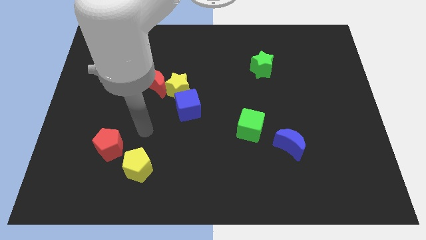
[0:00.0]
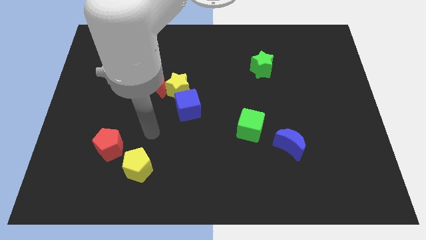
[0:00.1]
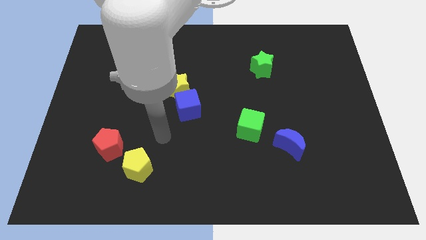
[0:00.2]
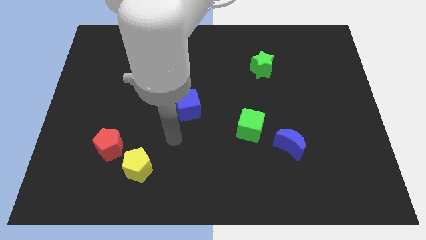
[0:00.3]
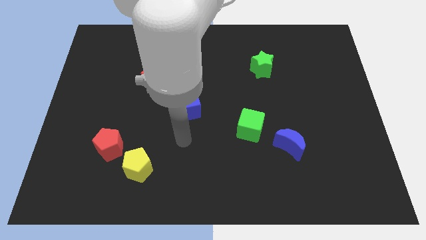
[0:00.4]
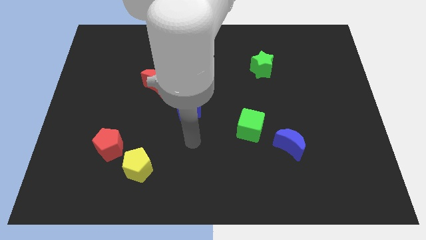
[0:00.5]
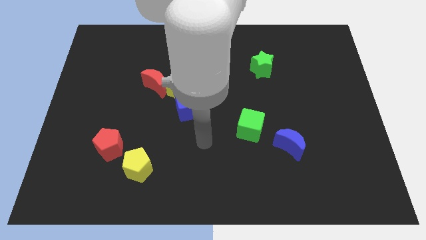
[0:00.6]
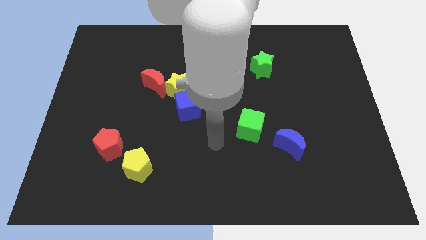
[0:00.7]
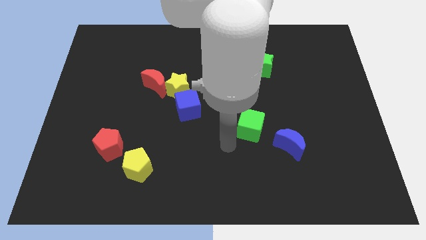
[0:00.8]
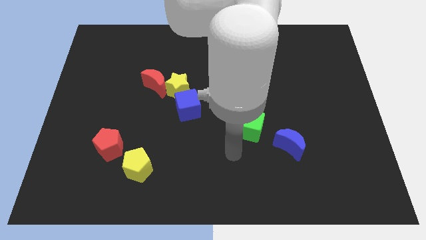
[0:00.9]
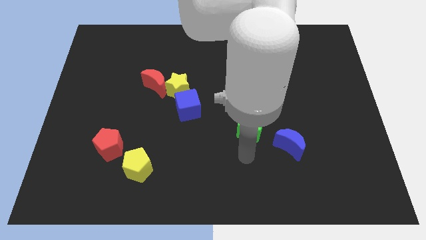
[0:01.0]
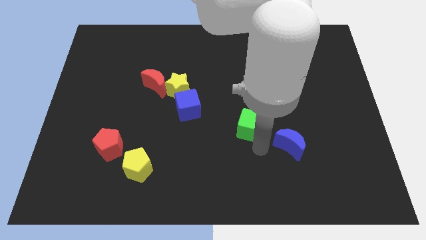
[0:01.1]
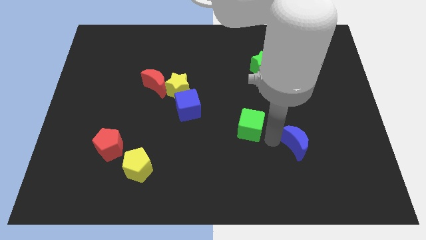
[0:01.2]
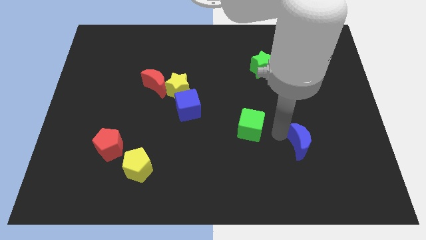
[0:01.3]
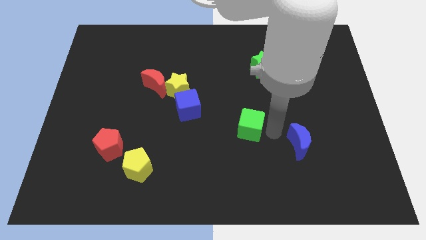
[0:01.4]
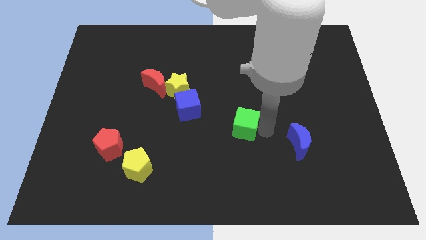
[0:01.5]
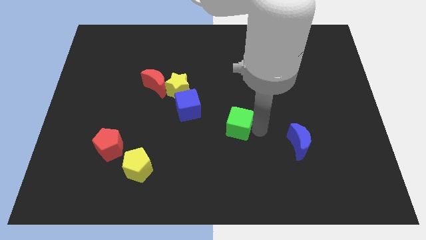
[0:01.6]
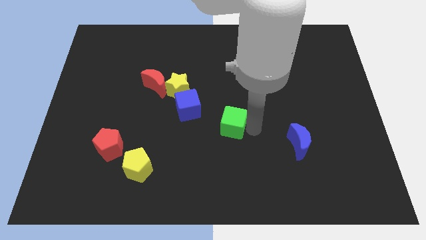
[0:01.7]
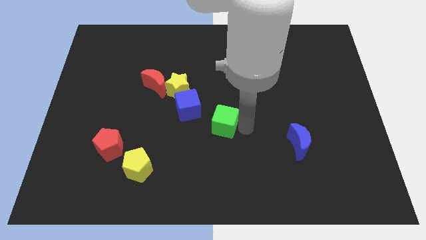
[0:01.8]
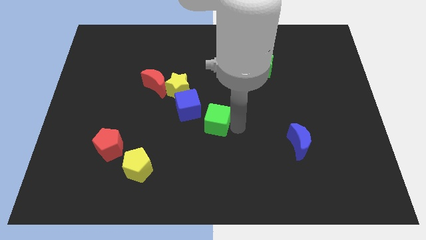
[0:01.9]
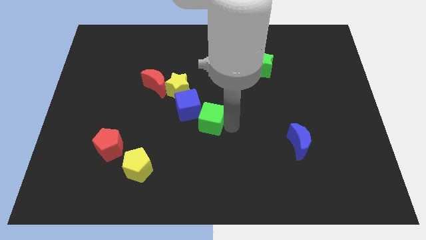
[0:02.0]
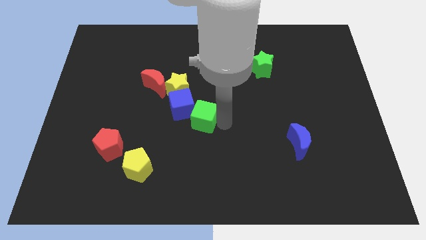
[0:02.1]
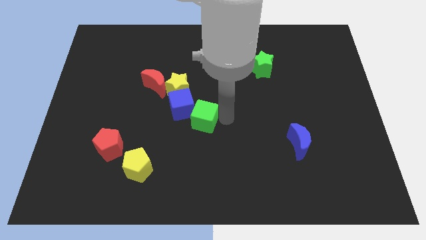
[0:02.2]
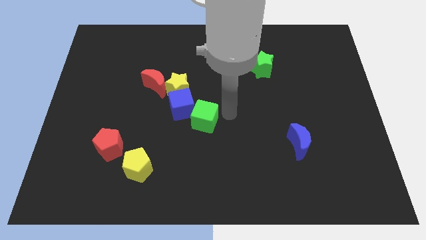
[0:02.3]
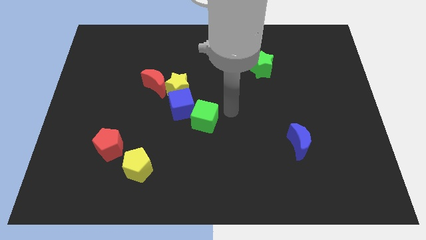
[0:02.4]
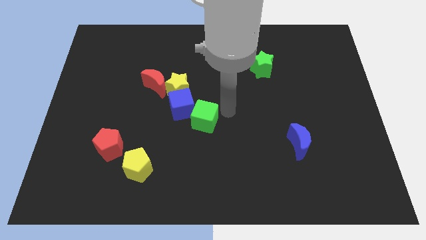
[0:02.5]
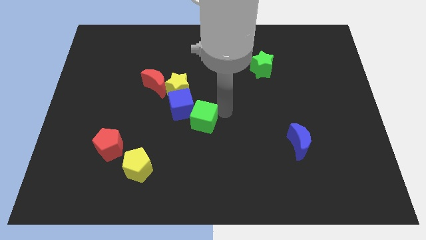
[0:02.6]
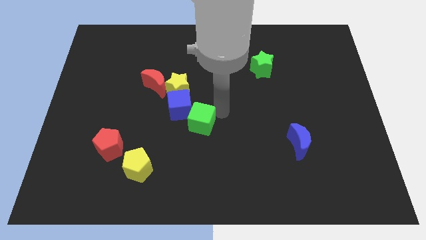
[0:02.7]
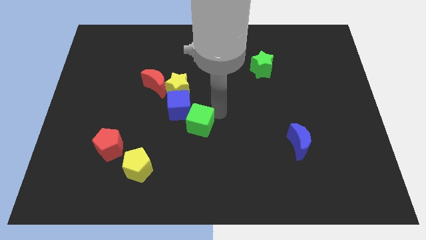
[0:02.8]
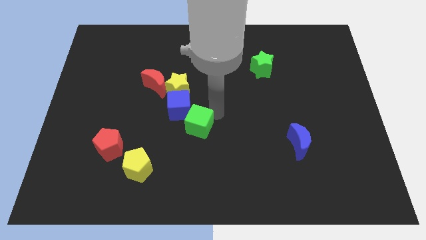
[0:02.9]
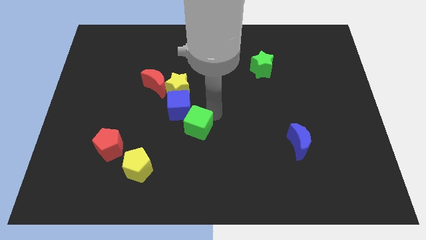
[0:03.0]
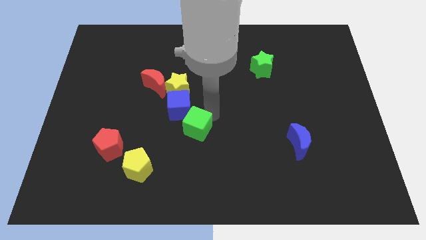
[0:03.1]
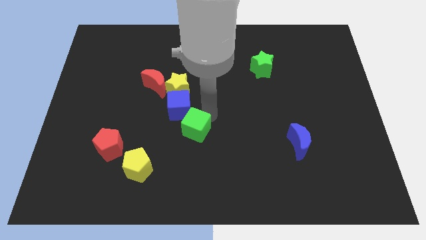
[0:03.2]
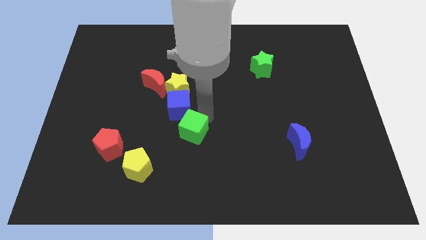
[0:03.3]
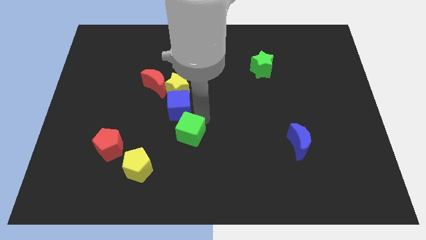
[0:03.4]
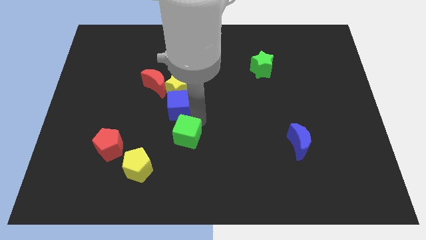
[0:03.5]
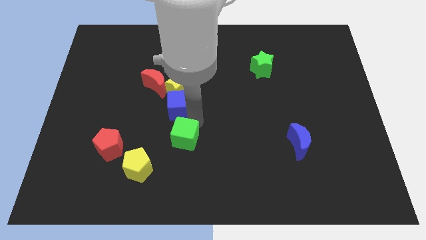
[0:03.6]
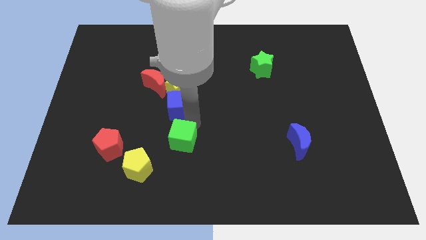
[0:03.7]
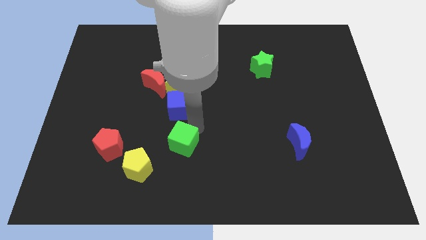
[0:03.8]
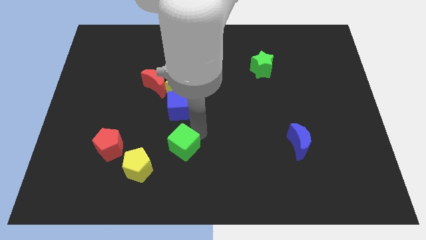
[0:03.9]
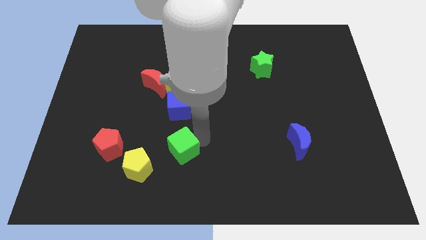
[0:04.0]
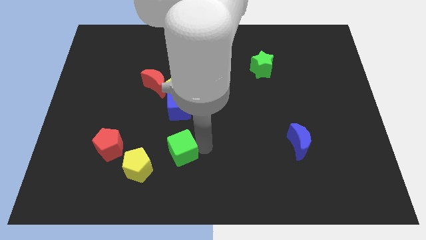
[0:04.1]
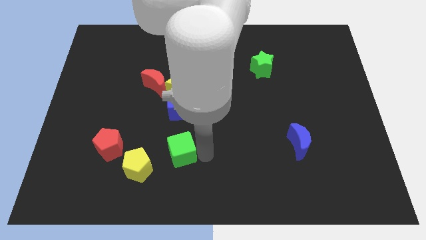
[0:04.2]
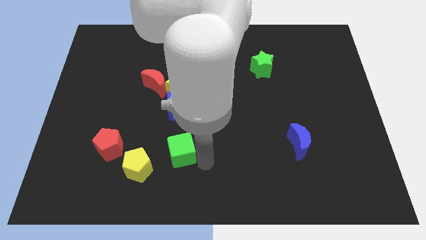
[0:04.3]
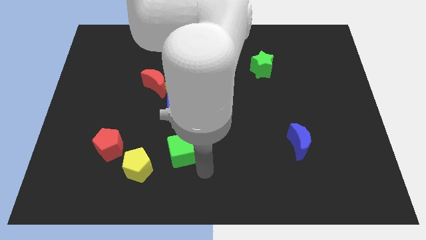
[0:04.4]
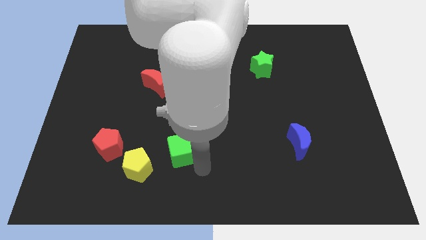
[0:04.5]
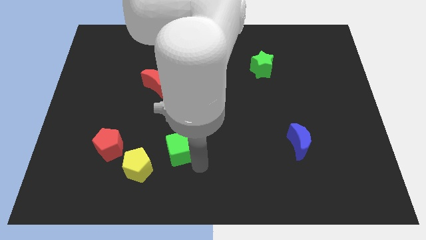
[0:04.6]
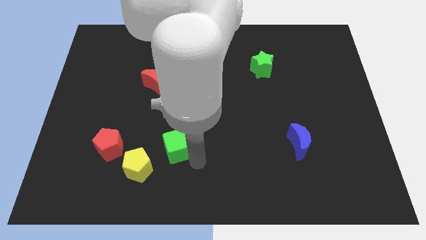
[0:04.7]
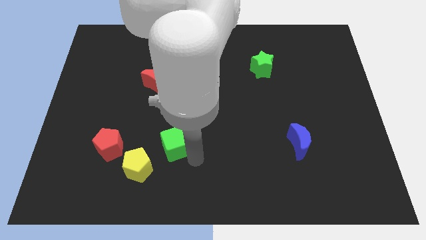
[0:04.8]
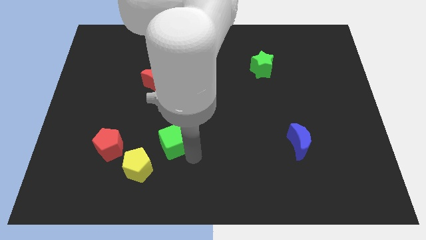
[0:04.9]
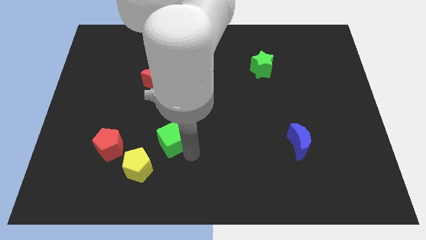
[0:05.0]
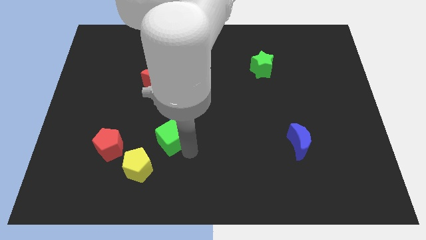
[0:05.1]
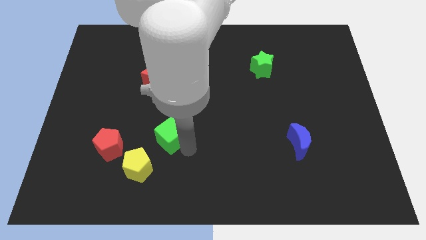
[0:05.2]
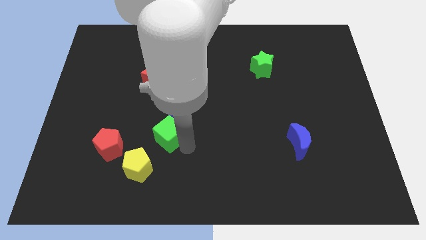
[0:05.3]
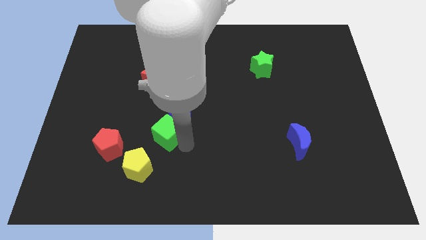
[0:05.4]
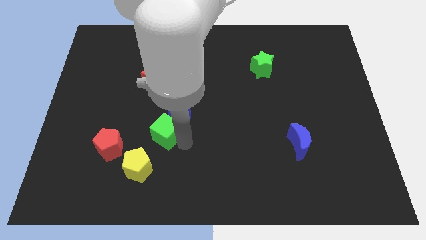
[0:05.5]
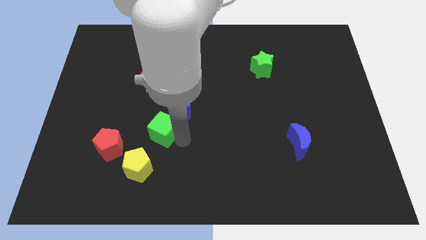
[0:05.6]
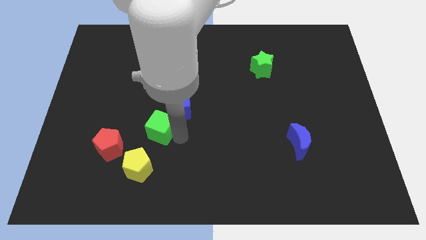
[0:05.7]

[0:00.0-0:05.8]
push the green cube left

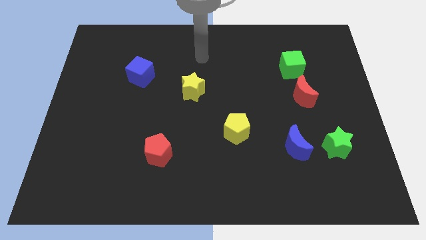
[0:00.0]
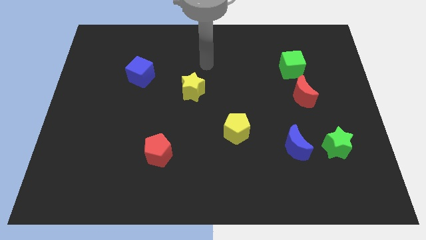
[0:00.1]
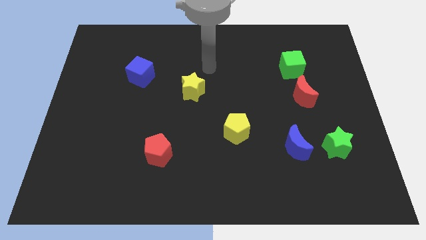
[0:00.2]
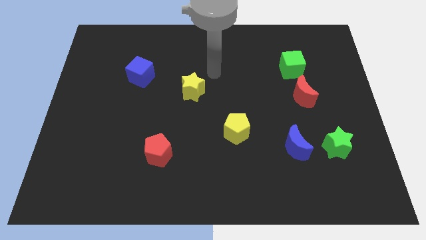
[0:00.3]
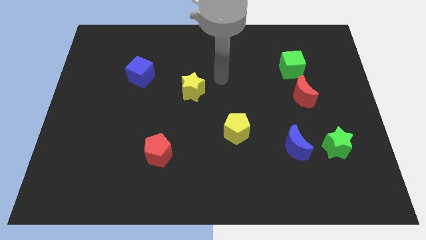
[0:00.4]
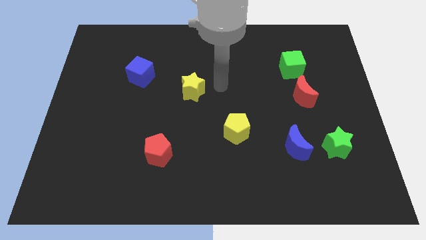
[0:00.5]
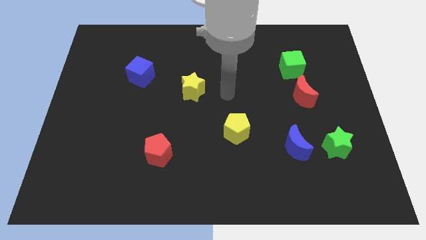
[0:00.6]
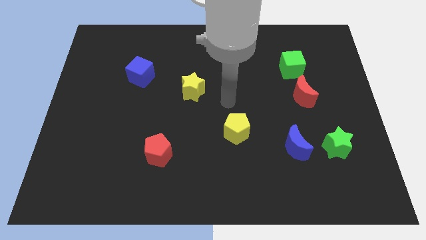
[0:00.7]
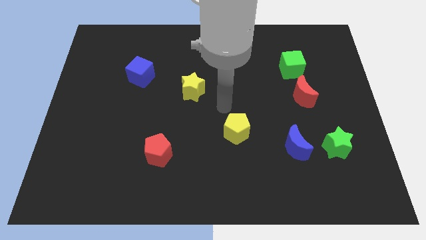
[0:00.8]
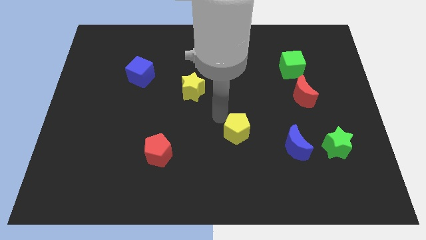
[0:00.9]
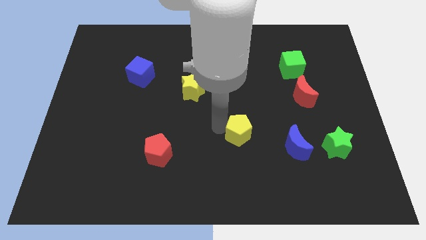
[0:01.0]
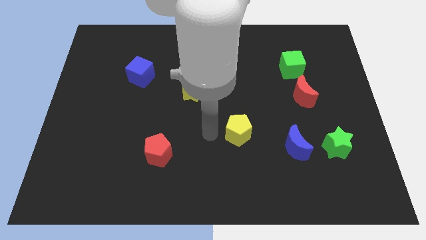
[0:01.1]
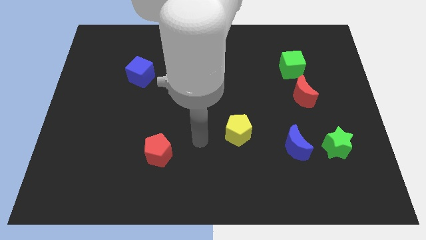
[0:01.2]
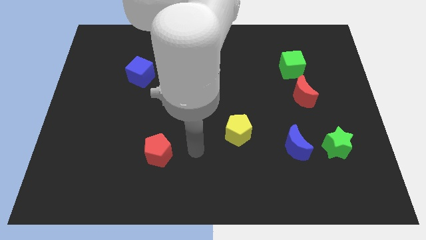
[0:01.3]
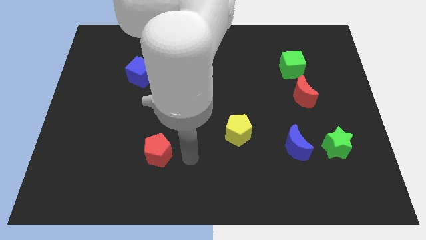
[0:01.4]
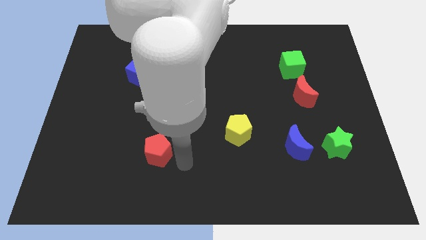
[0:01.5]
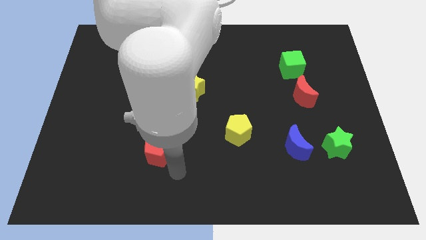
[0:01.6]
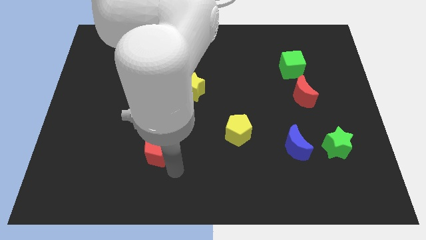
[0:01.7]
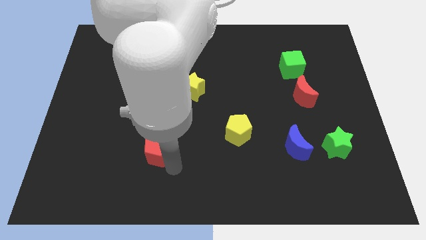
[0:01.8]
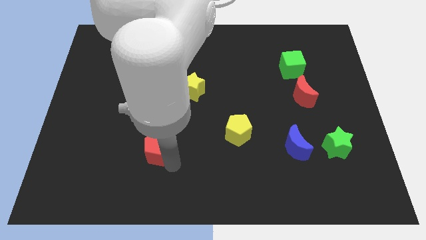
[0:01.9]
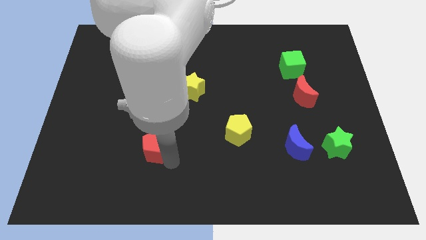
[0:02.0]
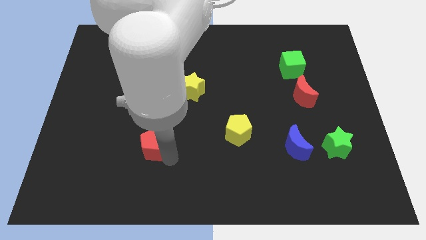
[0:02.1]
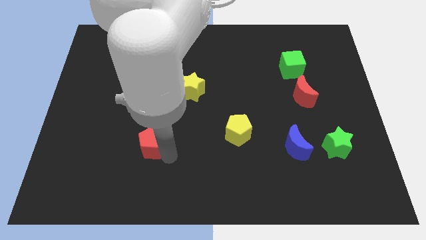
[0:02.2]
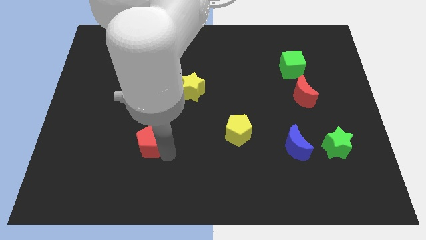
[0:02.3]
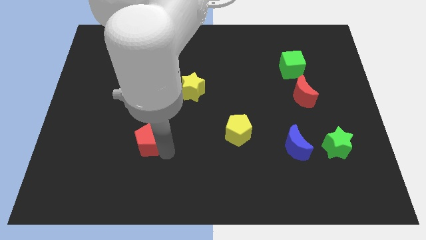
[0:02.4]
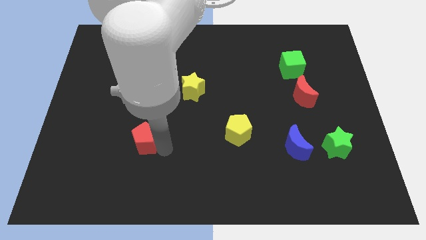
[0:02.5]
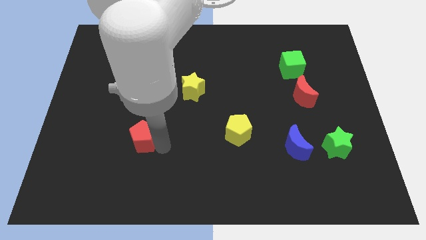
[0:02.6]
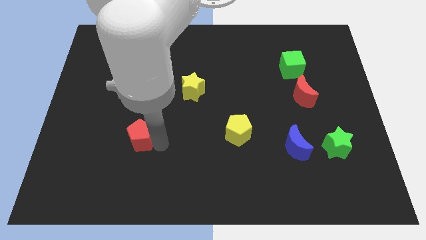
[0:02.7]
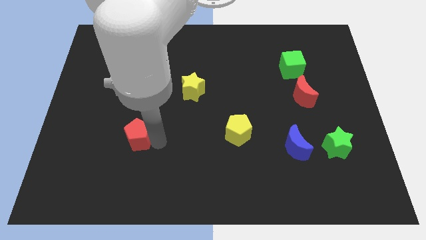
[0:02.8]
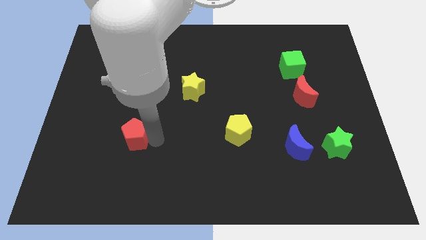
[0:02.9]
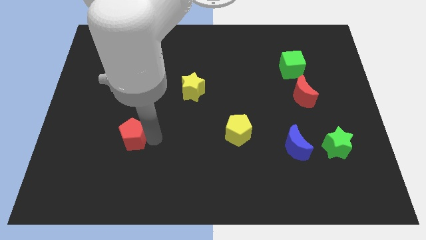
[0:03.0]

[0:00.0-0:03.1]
slide the red pentagon up and left diagonally a little
